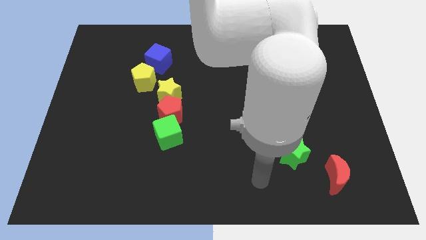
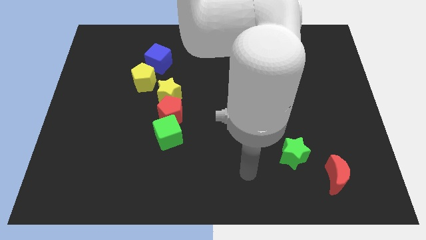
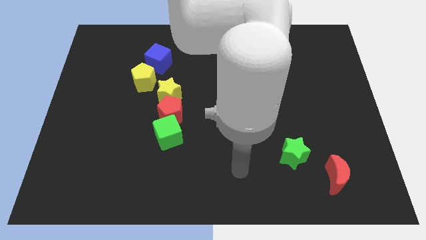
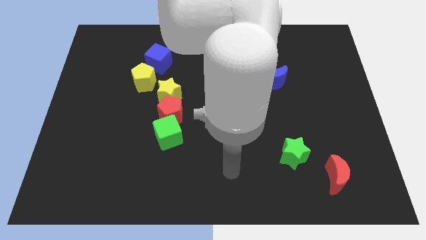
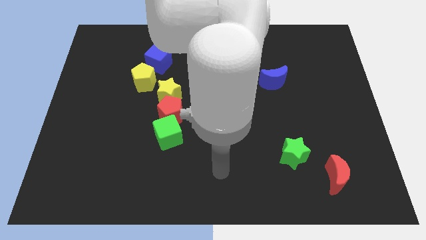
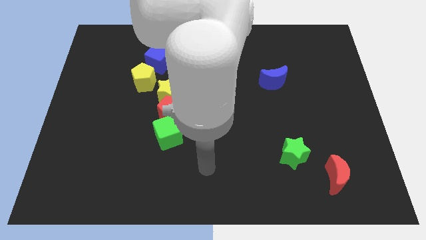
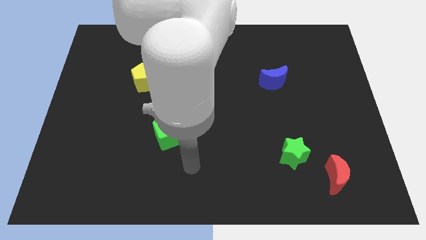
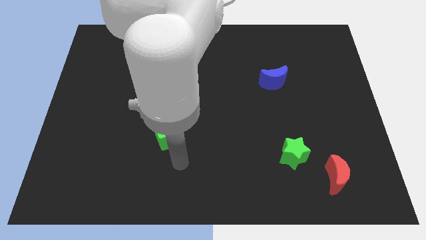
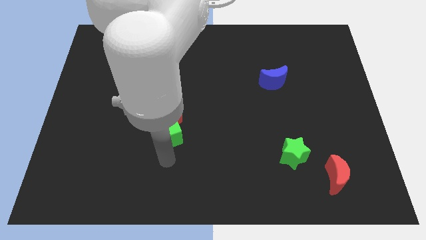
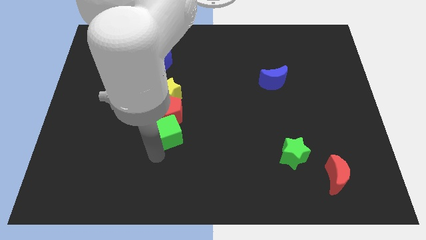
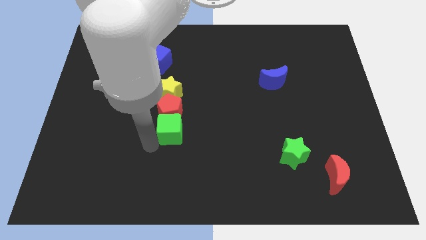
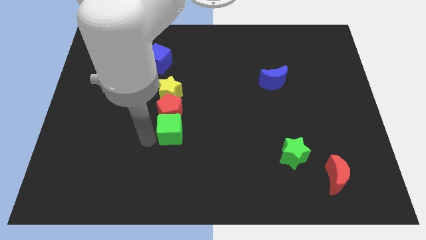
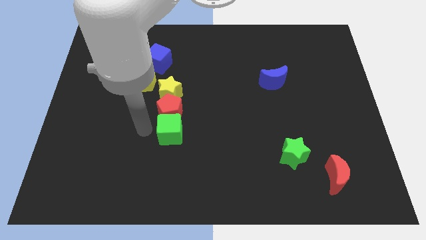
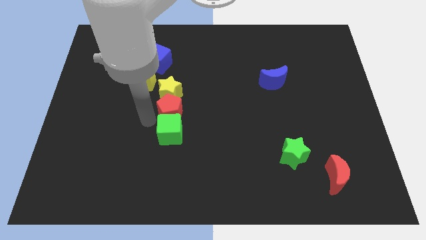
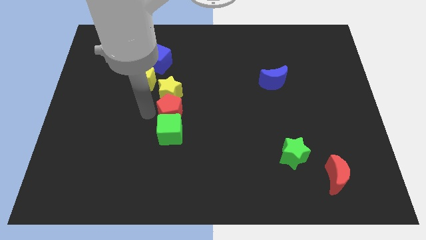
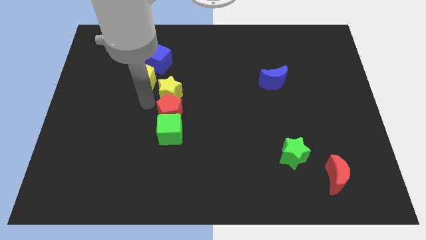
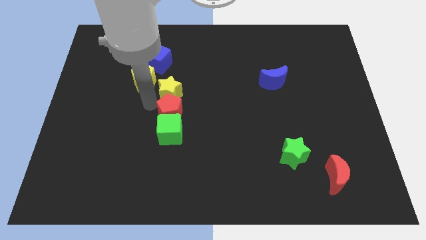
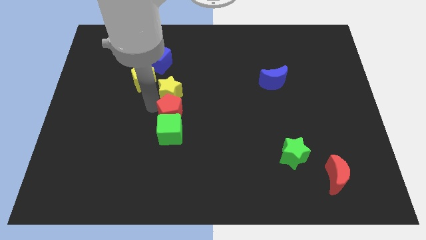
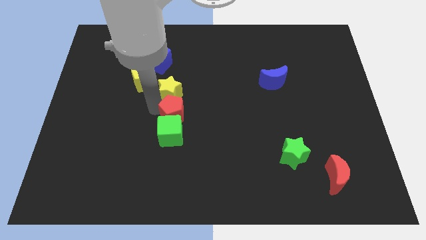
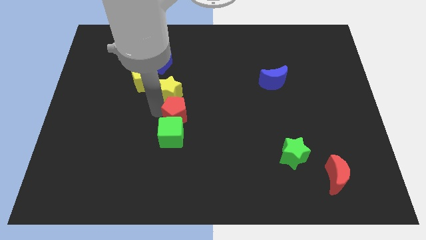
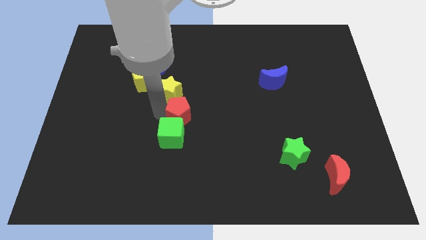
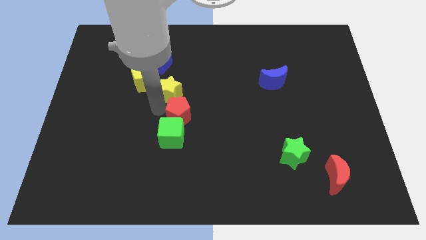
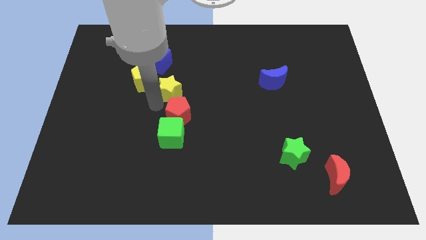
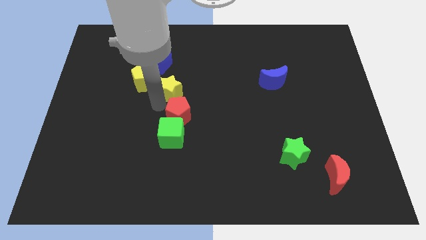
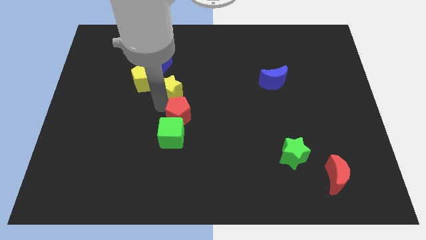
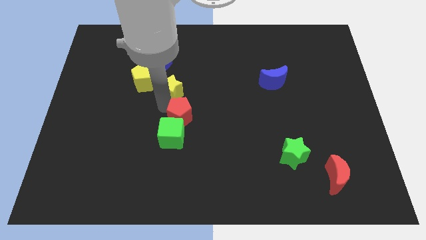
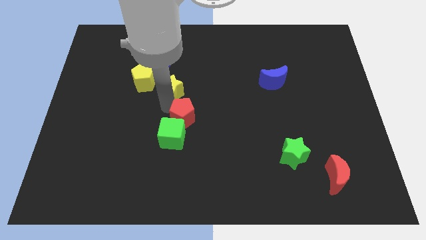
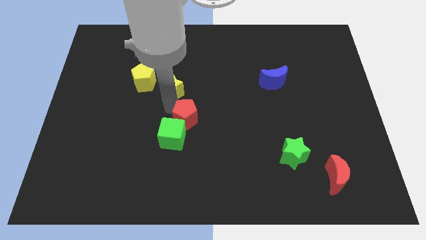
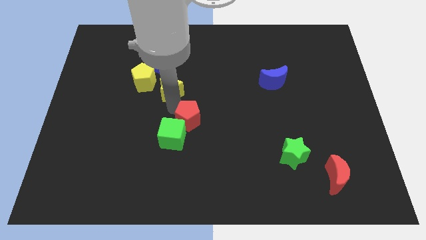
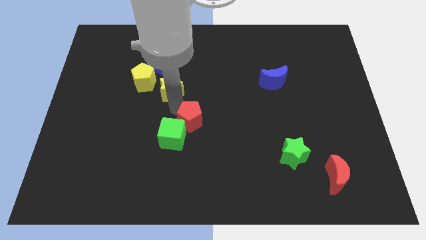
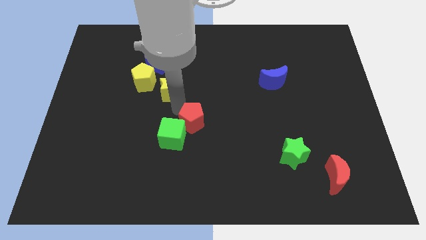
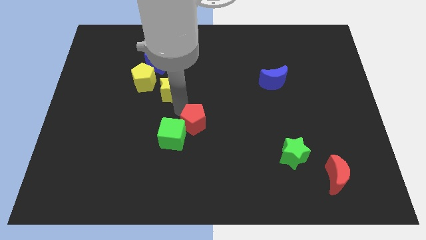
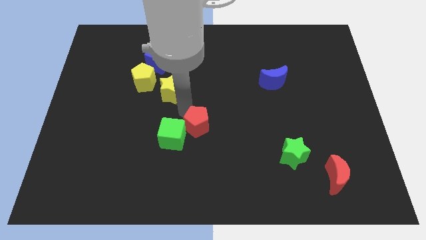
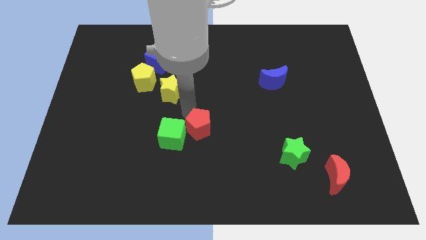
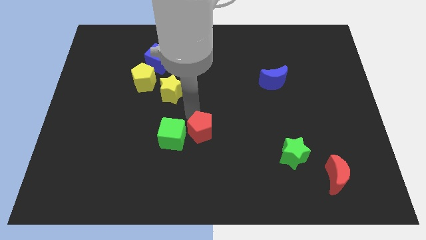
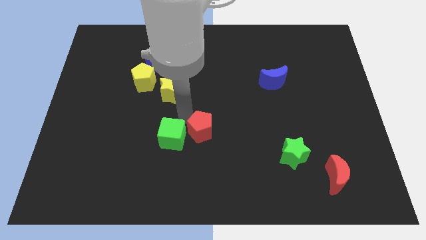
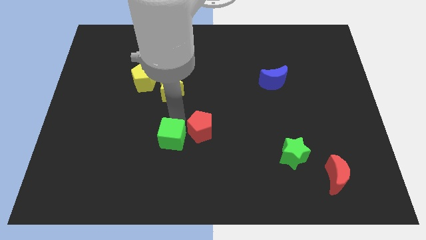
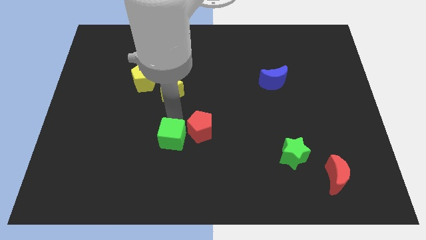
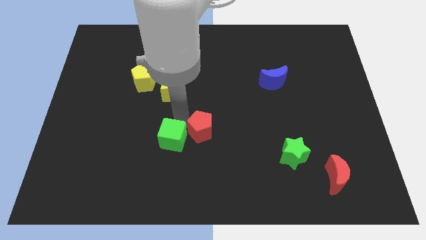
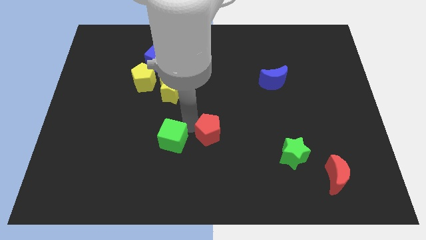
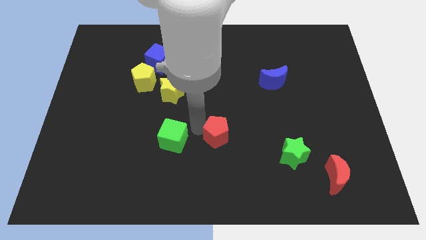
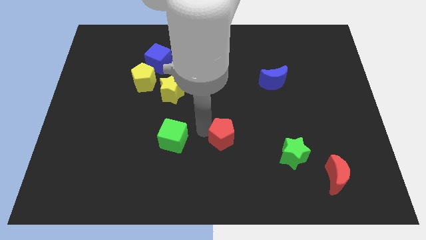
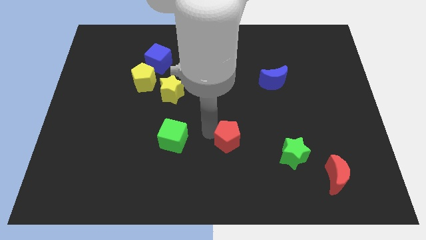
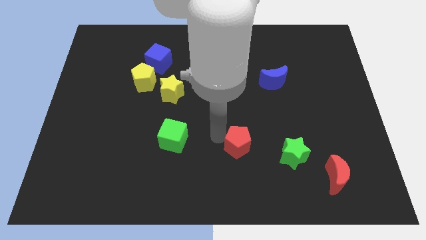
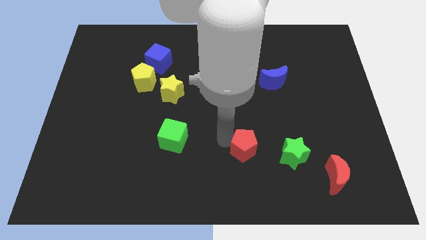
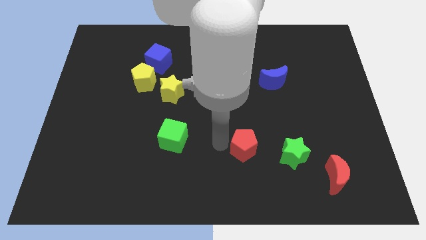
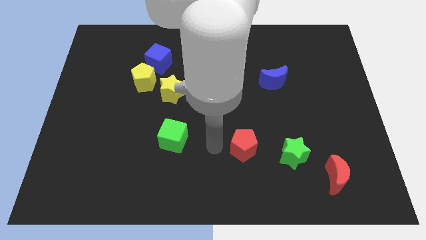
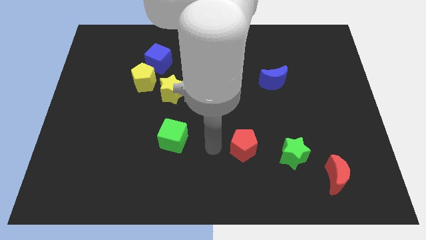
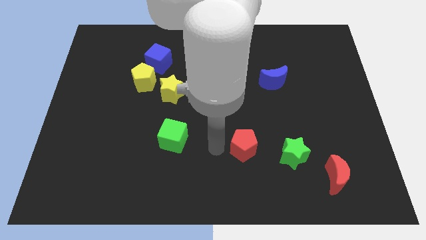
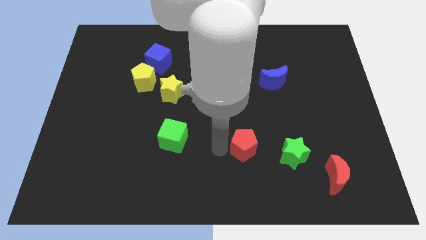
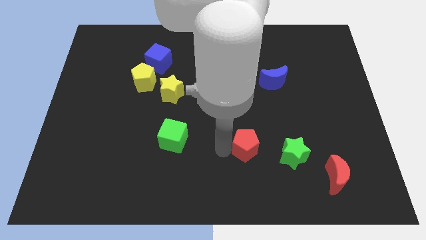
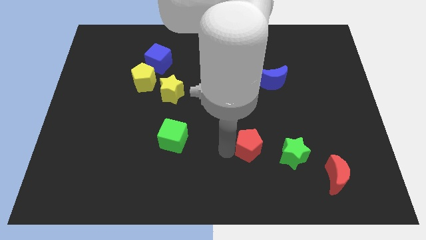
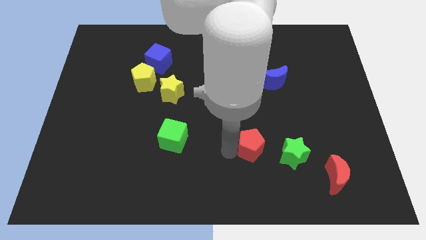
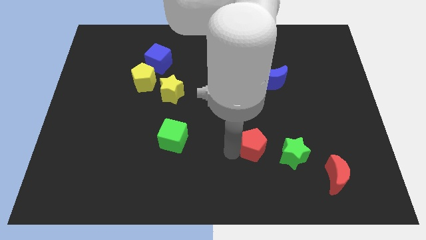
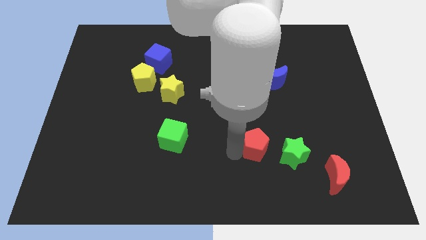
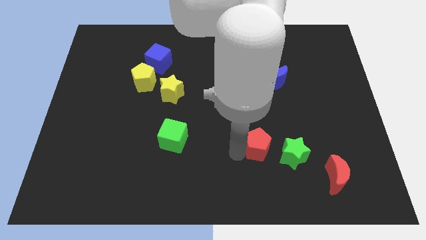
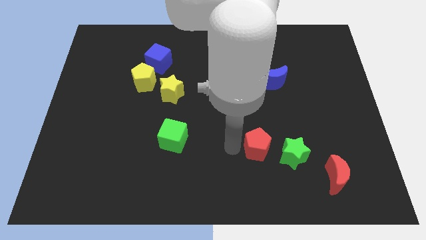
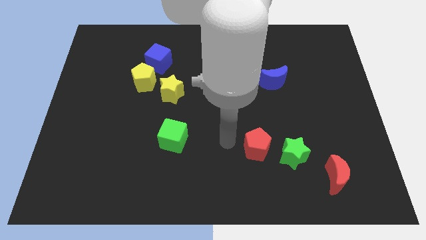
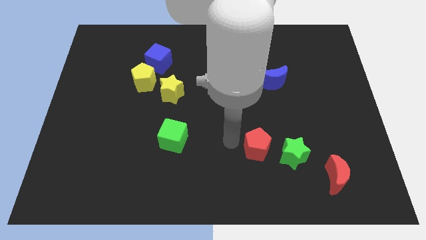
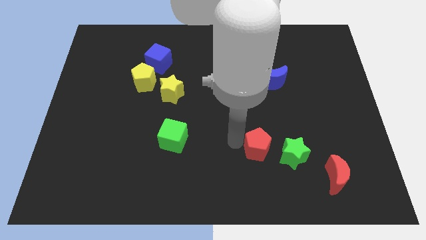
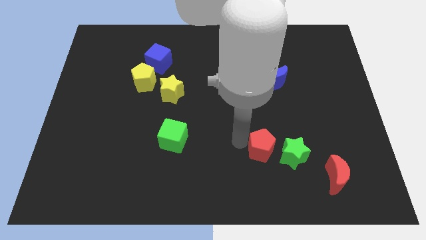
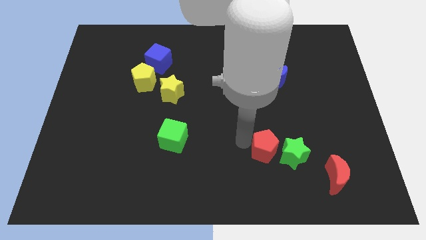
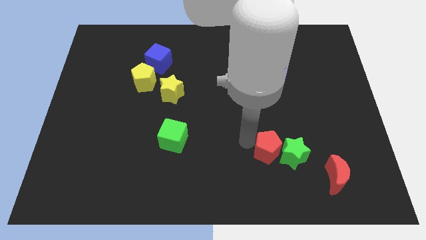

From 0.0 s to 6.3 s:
push the red pentagon to the green star
